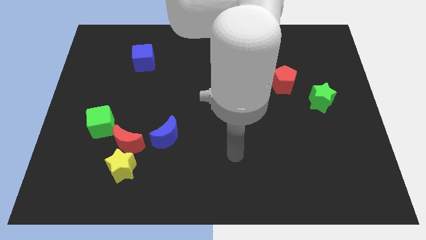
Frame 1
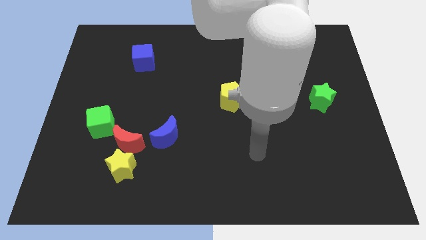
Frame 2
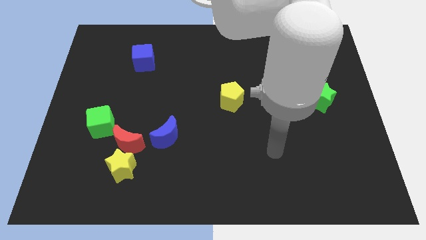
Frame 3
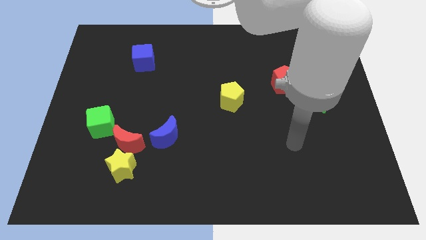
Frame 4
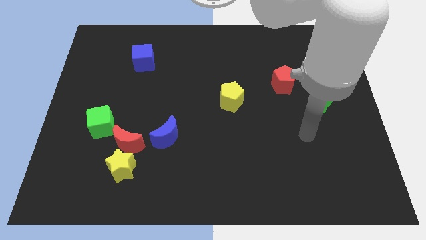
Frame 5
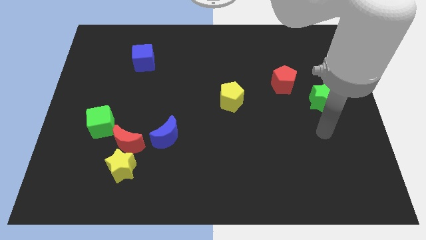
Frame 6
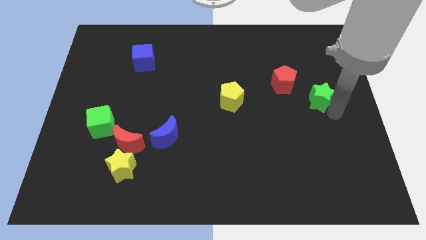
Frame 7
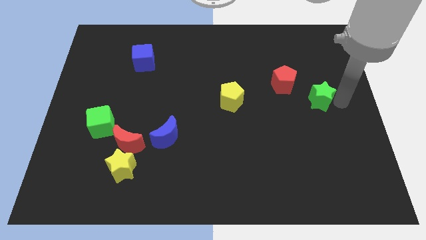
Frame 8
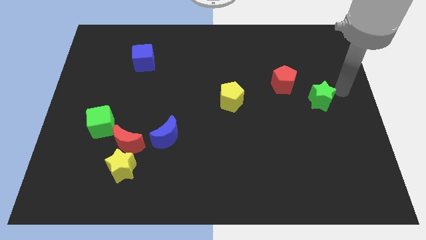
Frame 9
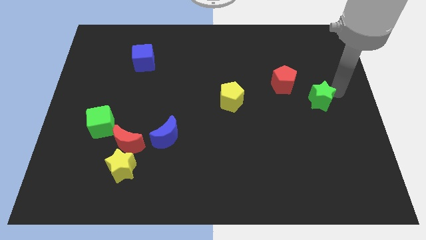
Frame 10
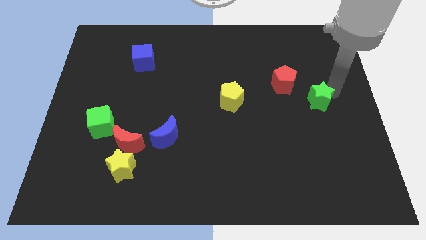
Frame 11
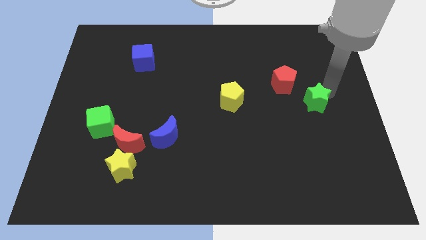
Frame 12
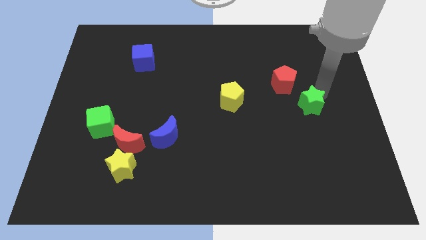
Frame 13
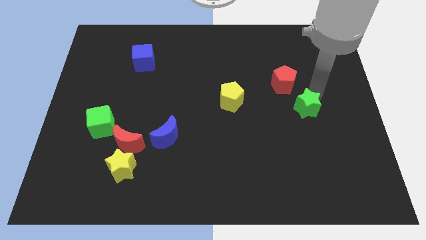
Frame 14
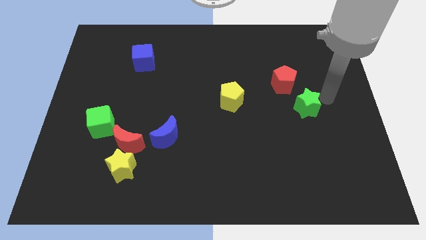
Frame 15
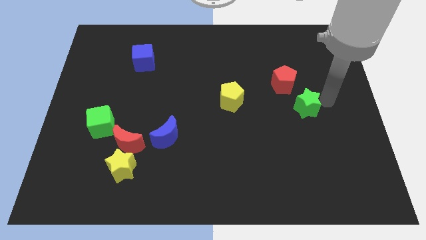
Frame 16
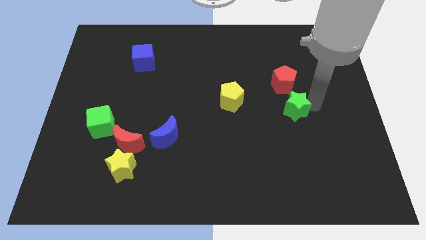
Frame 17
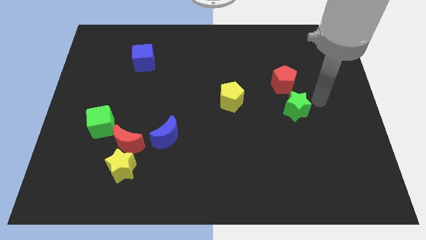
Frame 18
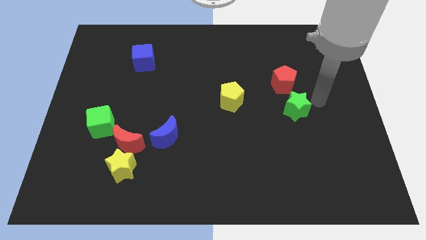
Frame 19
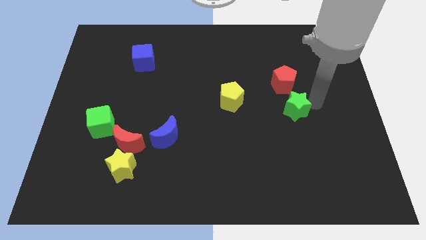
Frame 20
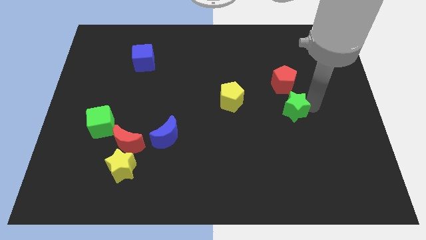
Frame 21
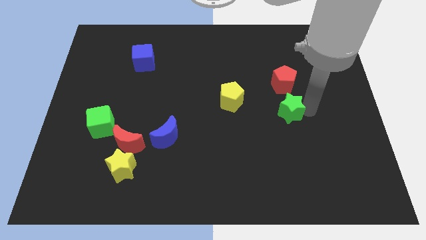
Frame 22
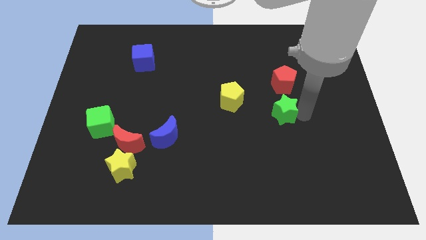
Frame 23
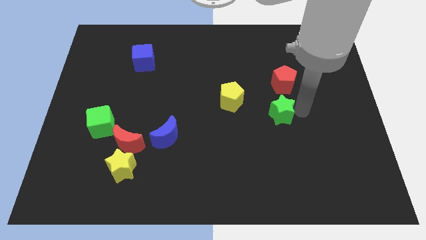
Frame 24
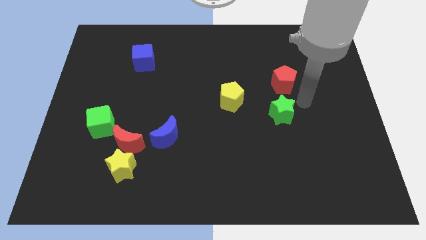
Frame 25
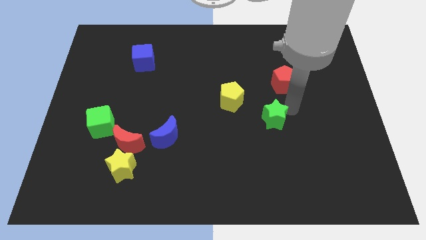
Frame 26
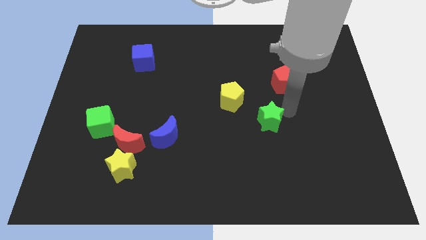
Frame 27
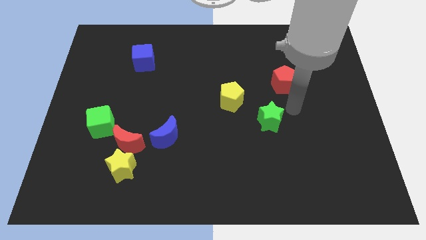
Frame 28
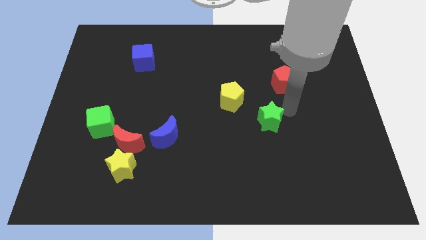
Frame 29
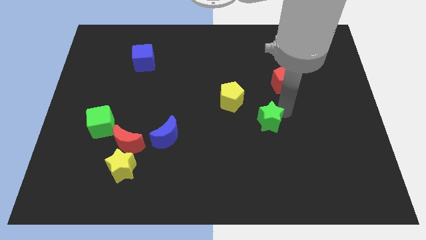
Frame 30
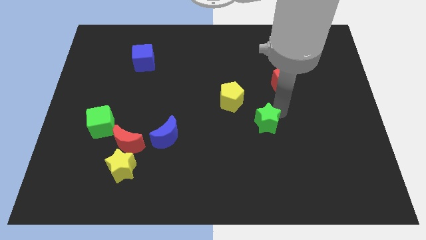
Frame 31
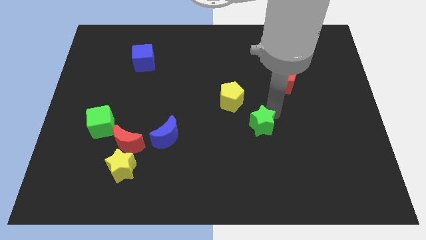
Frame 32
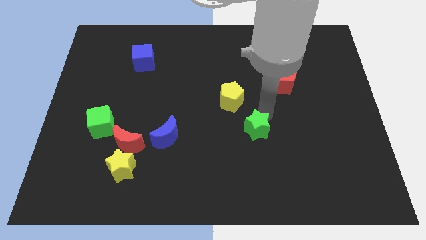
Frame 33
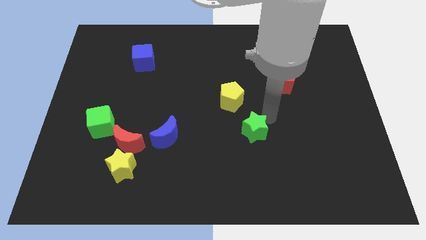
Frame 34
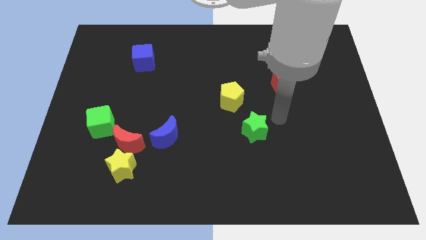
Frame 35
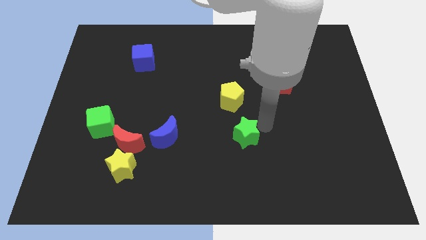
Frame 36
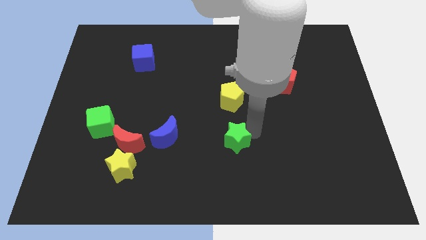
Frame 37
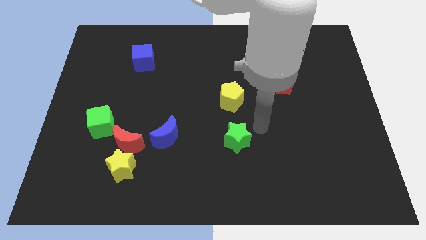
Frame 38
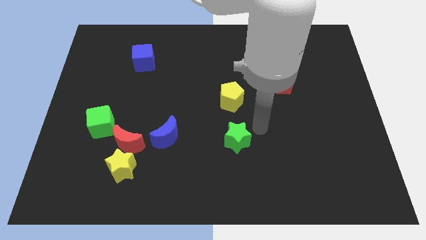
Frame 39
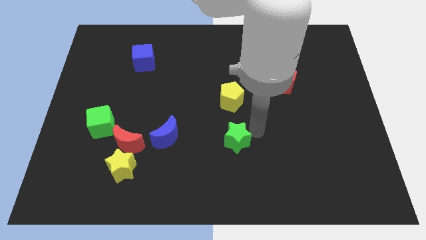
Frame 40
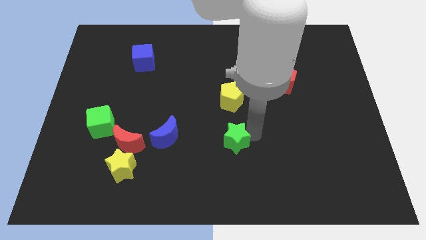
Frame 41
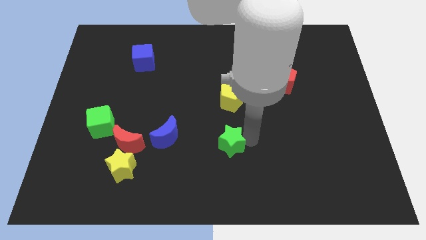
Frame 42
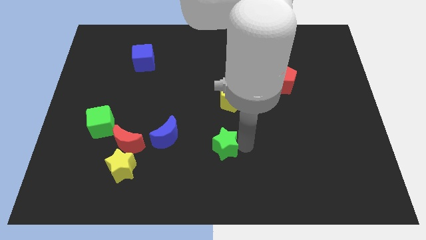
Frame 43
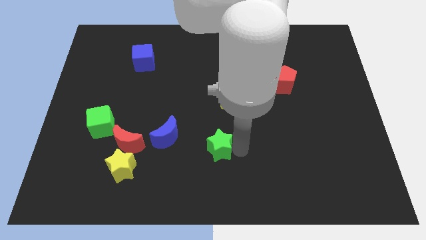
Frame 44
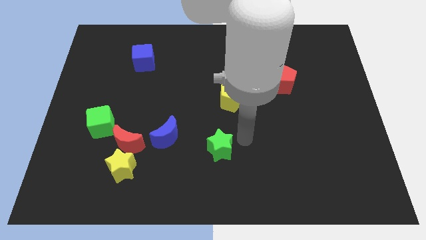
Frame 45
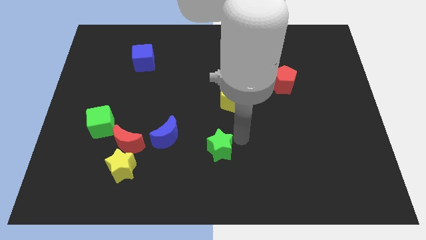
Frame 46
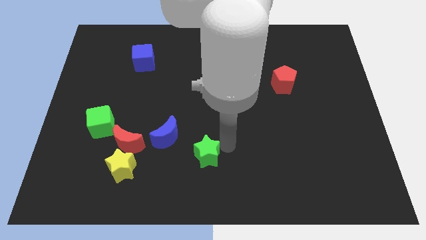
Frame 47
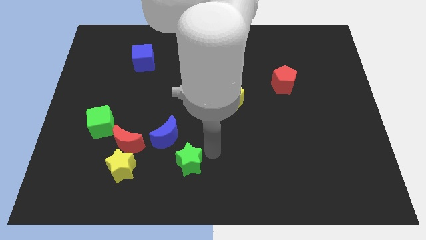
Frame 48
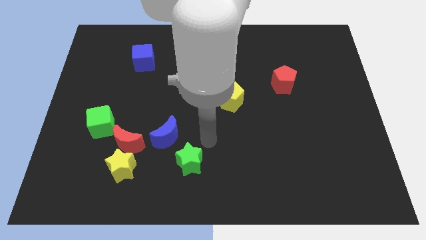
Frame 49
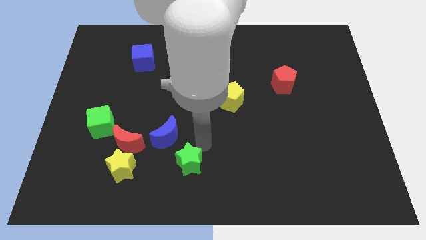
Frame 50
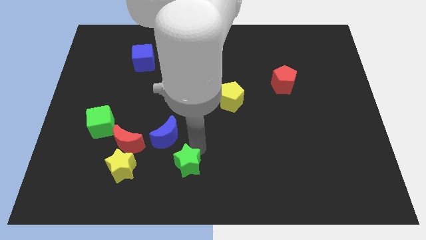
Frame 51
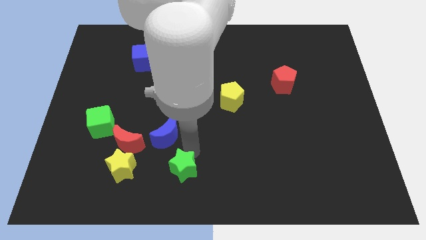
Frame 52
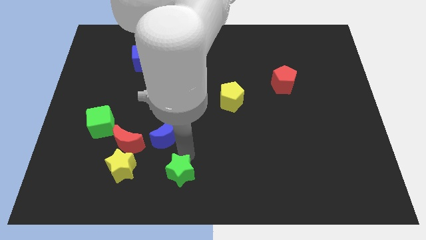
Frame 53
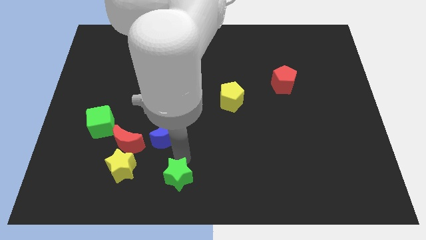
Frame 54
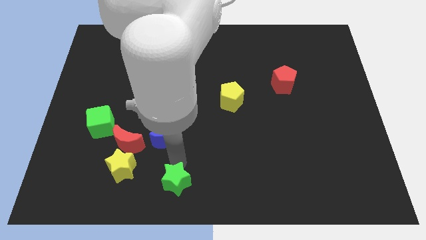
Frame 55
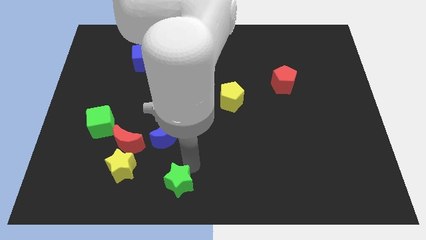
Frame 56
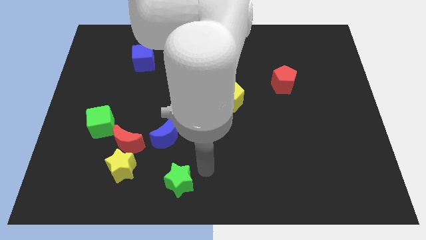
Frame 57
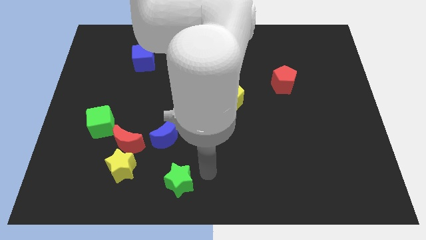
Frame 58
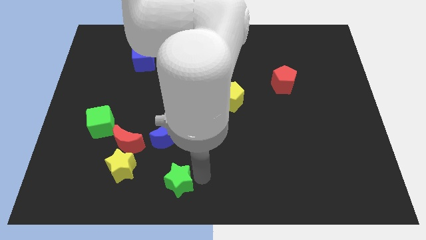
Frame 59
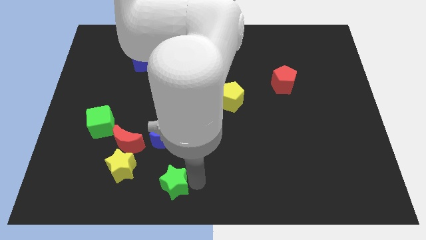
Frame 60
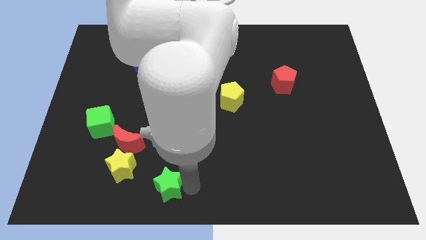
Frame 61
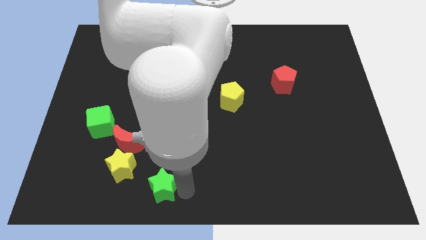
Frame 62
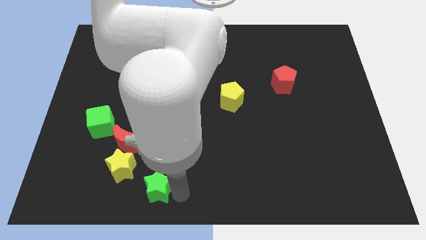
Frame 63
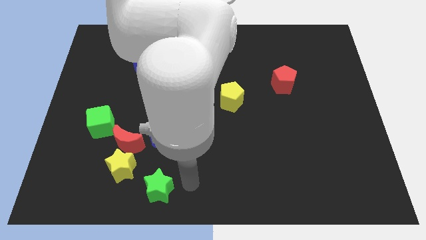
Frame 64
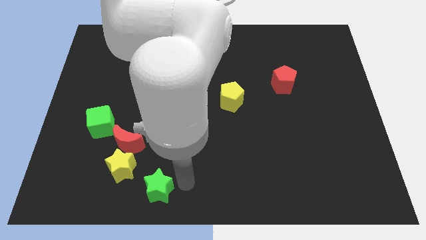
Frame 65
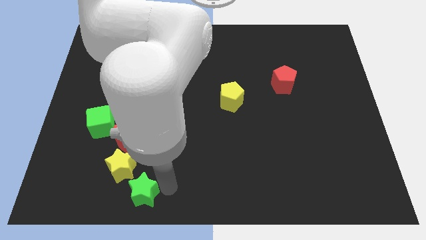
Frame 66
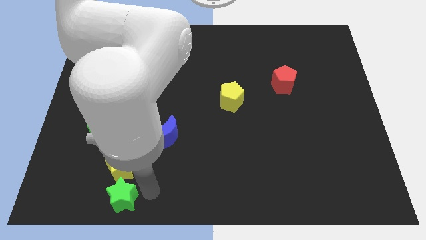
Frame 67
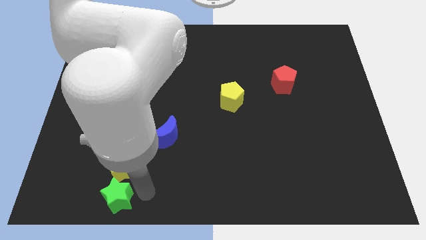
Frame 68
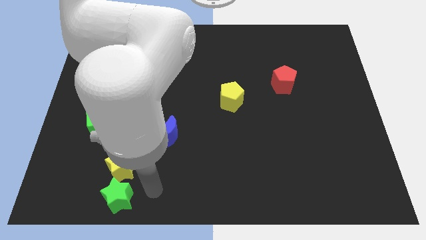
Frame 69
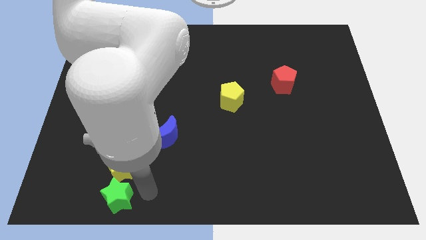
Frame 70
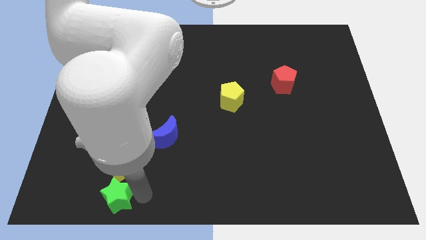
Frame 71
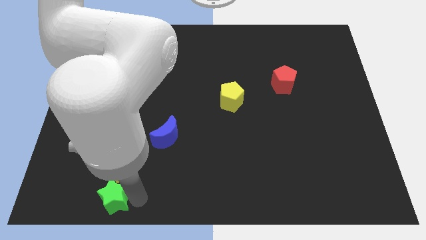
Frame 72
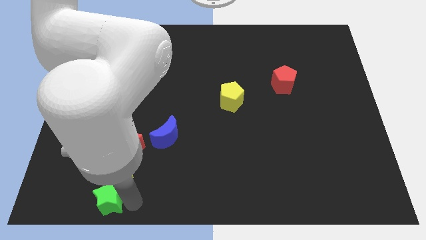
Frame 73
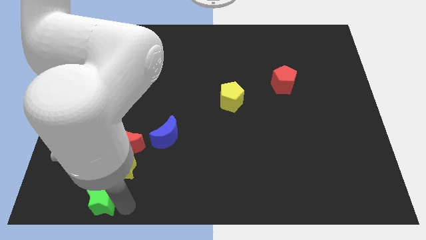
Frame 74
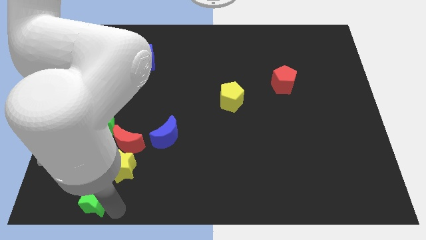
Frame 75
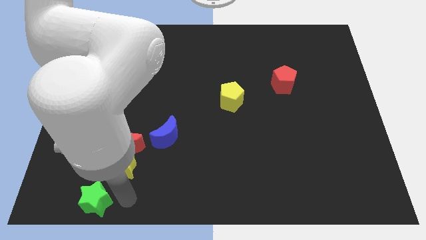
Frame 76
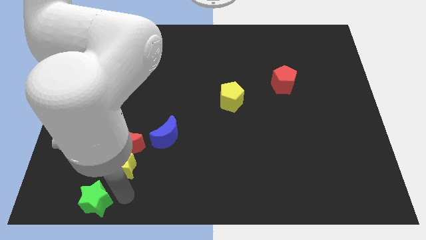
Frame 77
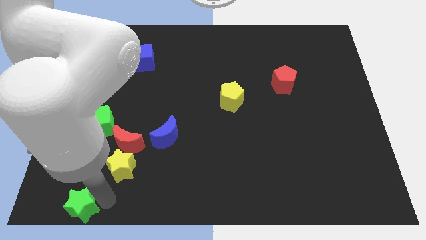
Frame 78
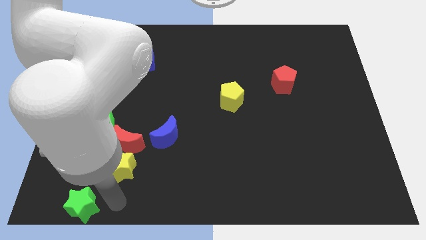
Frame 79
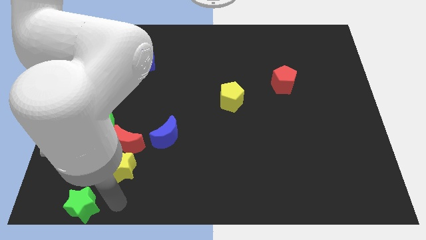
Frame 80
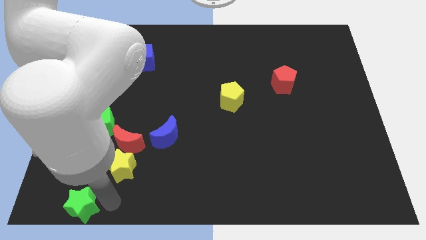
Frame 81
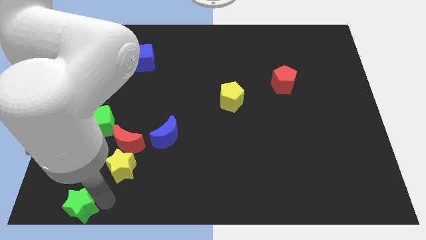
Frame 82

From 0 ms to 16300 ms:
move the green star to the bottom left corner
